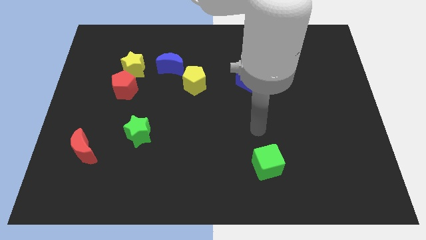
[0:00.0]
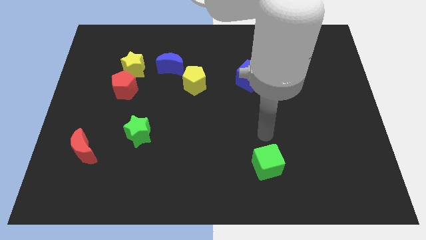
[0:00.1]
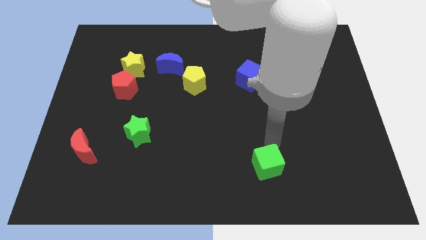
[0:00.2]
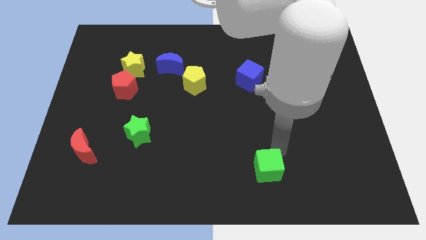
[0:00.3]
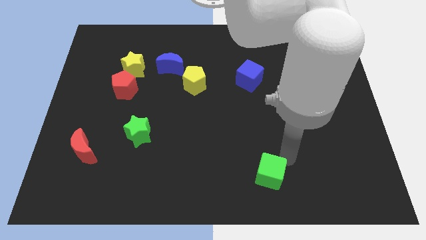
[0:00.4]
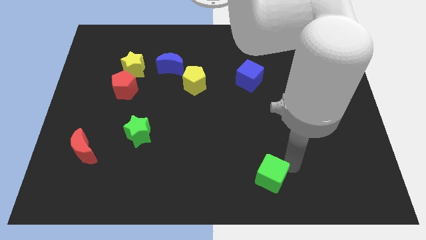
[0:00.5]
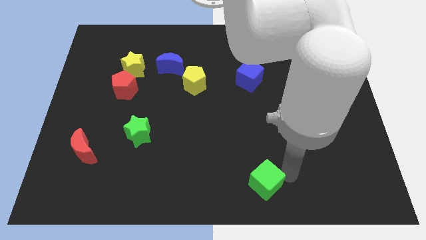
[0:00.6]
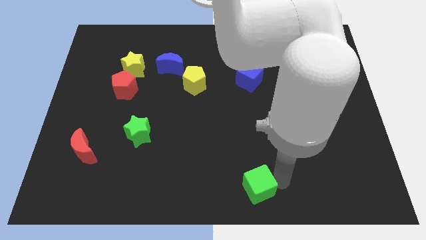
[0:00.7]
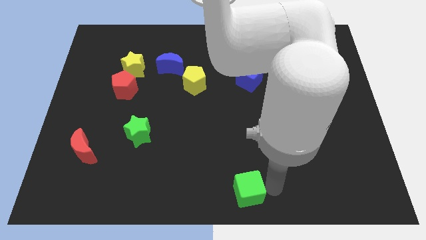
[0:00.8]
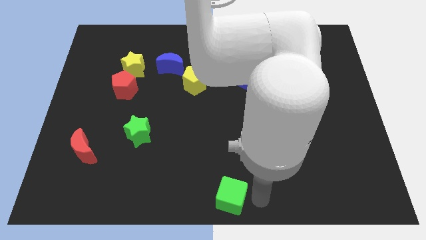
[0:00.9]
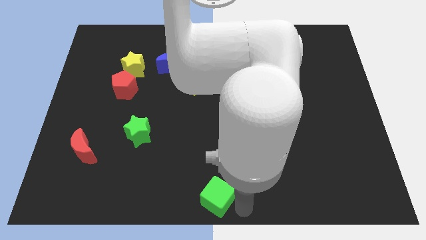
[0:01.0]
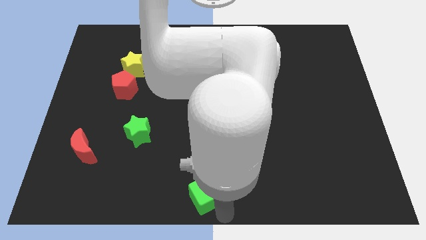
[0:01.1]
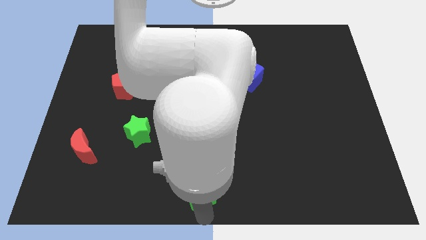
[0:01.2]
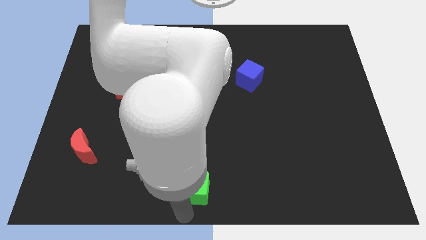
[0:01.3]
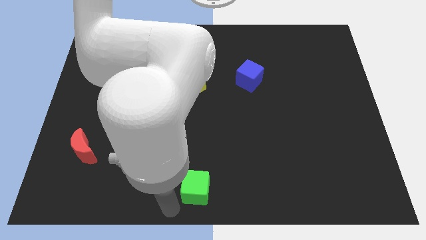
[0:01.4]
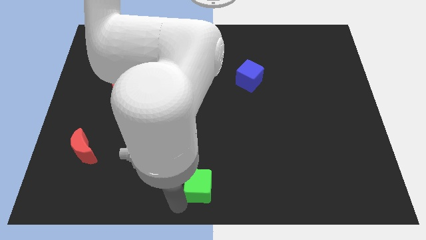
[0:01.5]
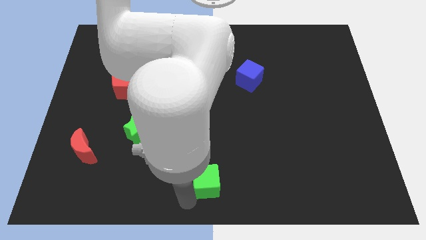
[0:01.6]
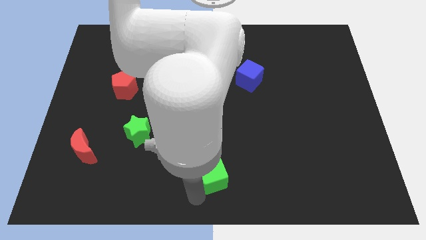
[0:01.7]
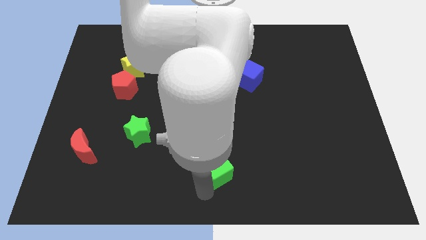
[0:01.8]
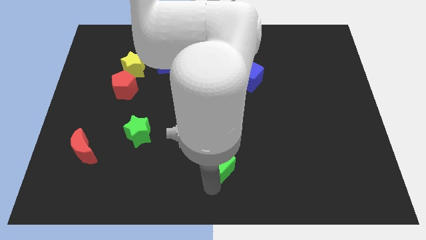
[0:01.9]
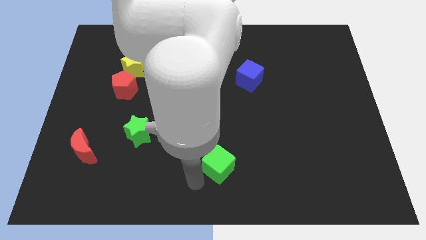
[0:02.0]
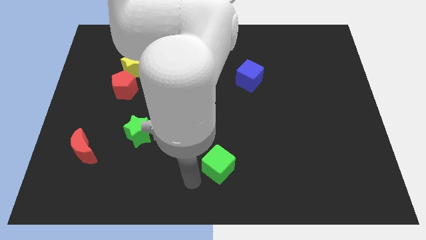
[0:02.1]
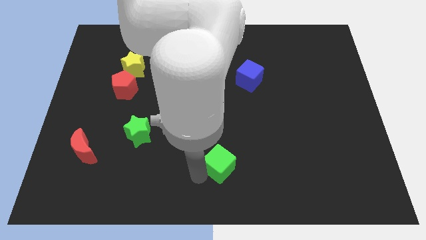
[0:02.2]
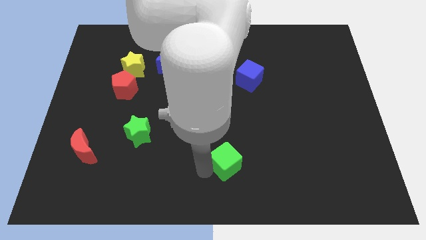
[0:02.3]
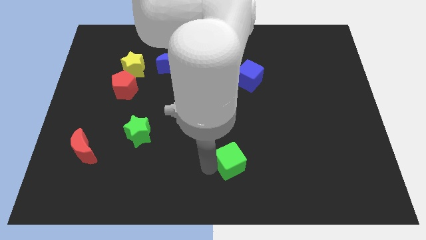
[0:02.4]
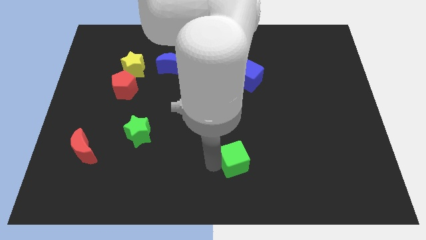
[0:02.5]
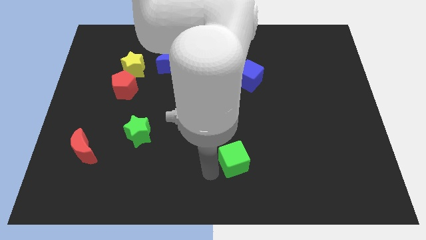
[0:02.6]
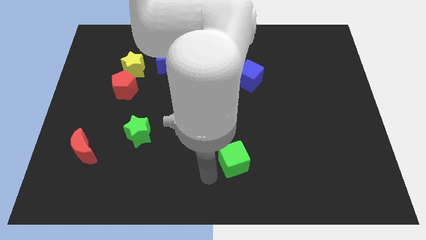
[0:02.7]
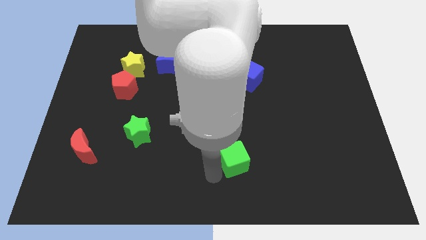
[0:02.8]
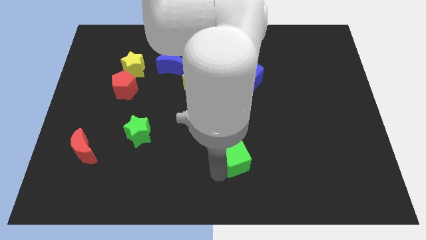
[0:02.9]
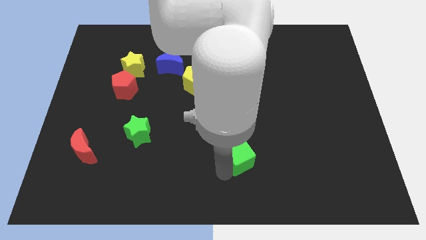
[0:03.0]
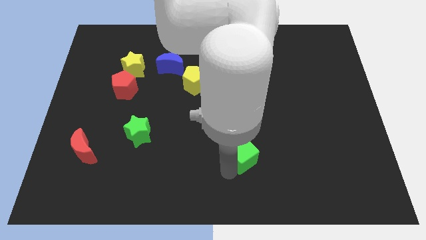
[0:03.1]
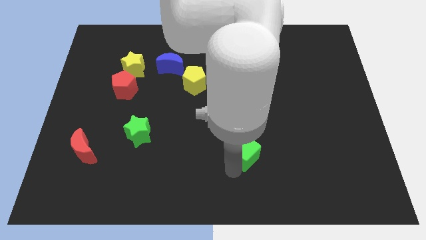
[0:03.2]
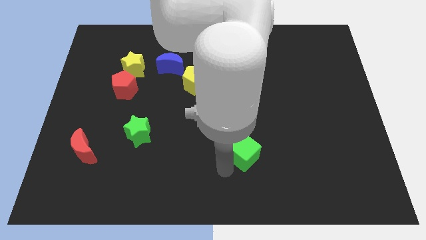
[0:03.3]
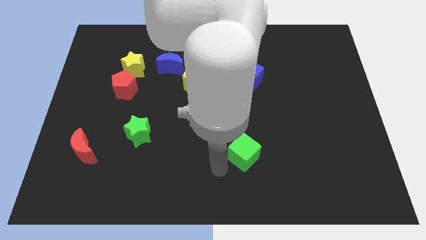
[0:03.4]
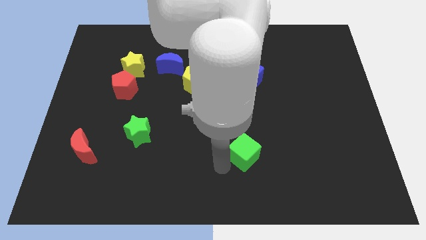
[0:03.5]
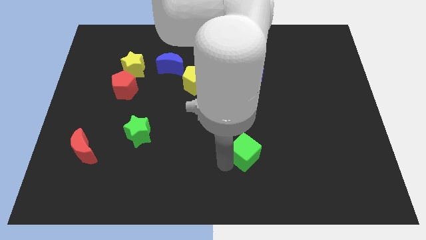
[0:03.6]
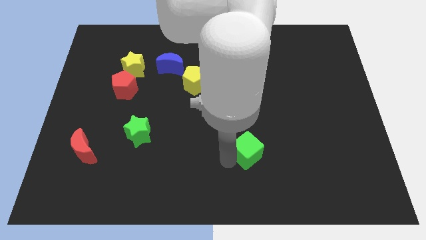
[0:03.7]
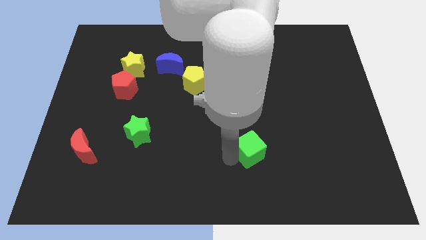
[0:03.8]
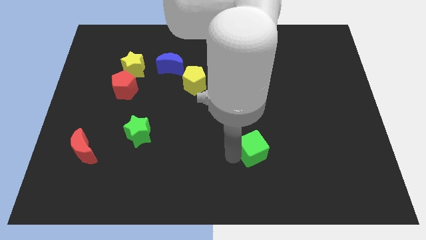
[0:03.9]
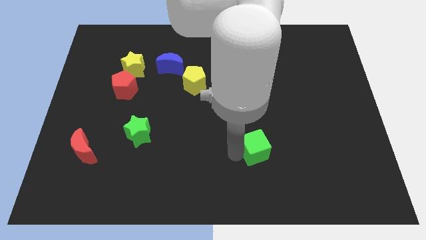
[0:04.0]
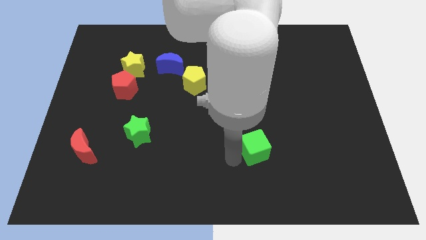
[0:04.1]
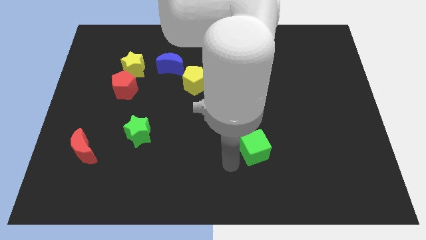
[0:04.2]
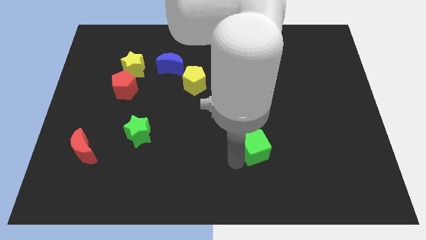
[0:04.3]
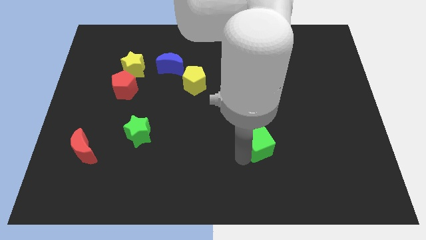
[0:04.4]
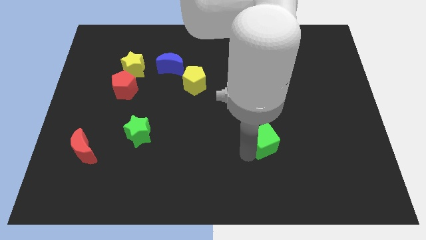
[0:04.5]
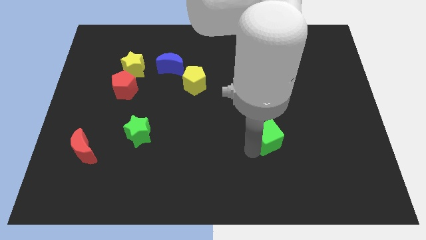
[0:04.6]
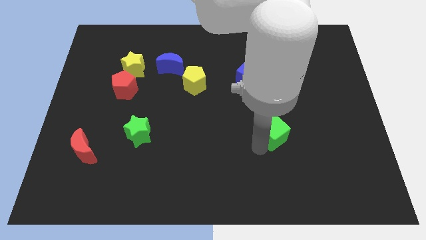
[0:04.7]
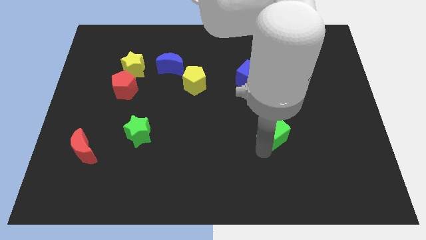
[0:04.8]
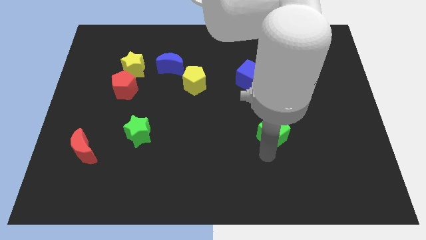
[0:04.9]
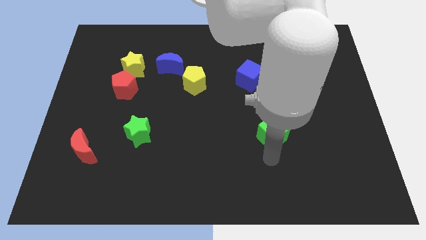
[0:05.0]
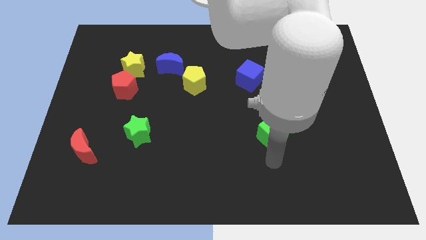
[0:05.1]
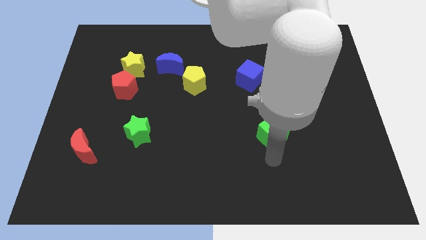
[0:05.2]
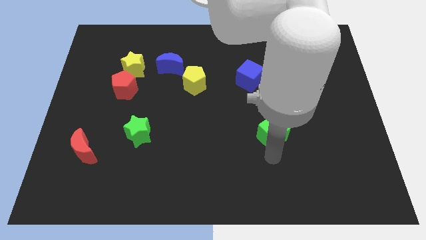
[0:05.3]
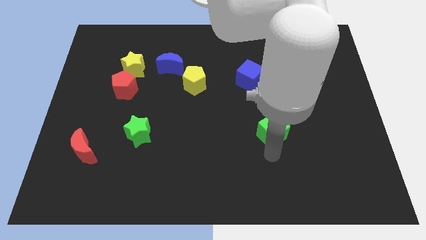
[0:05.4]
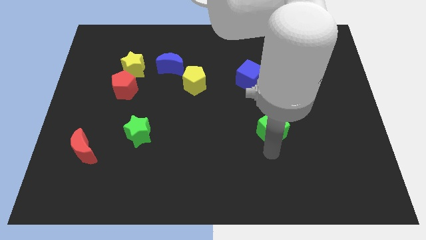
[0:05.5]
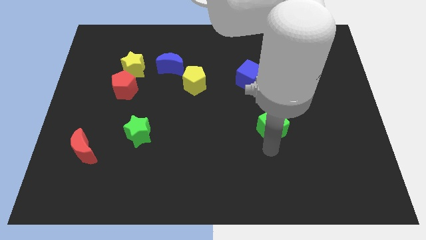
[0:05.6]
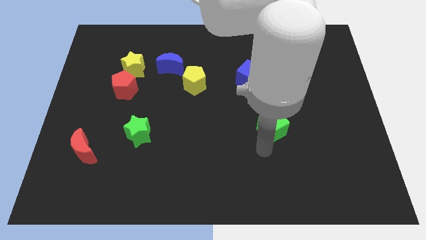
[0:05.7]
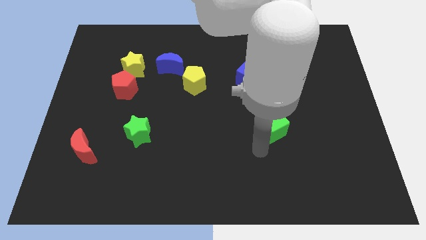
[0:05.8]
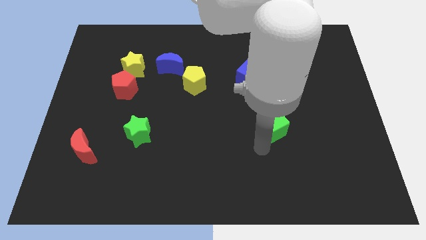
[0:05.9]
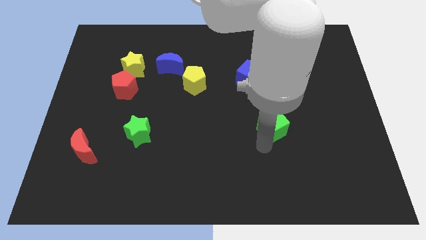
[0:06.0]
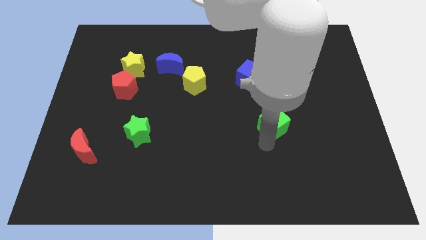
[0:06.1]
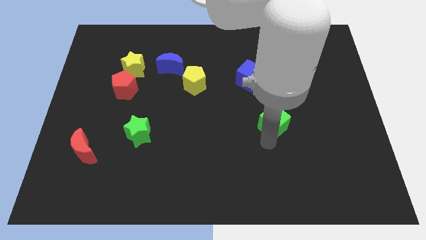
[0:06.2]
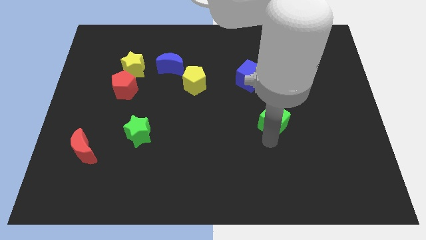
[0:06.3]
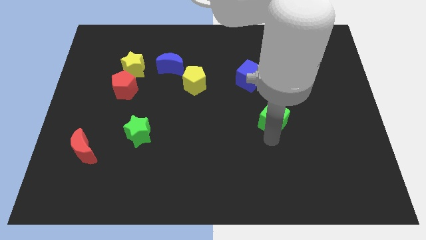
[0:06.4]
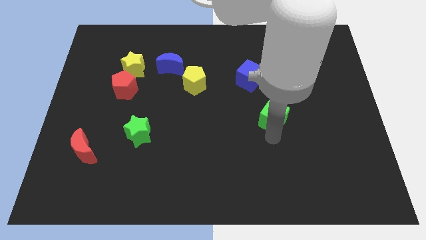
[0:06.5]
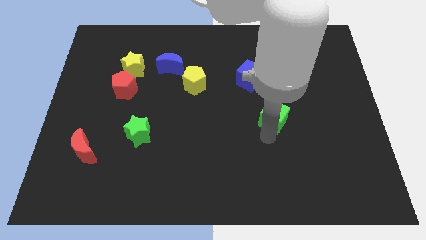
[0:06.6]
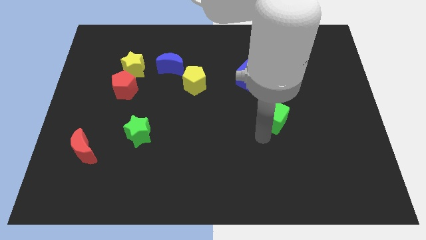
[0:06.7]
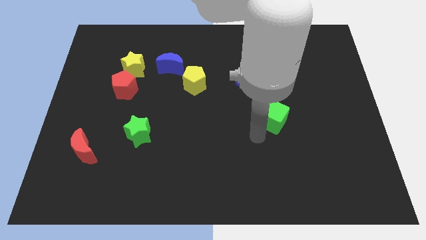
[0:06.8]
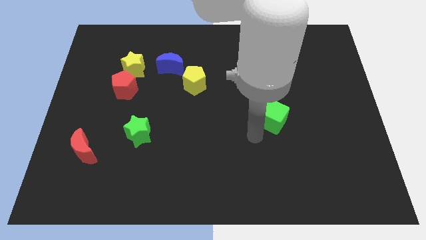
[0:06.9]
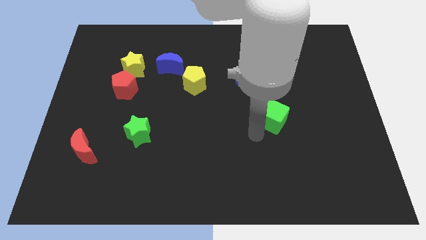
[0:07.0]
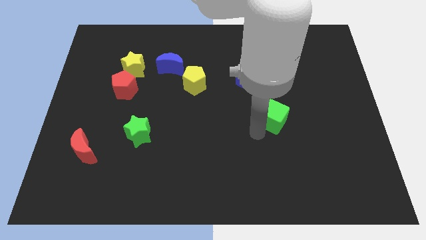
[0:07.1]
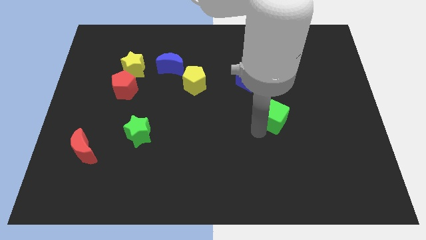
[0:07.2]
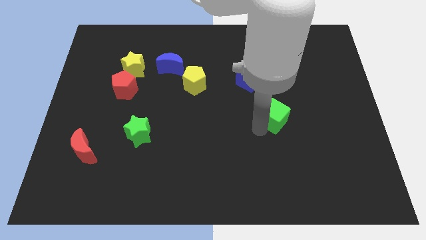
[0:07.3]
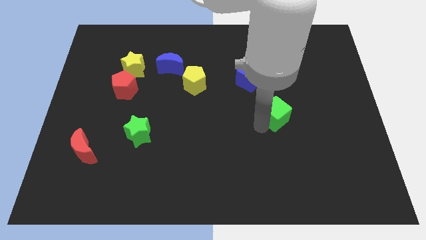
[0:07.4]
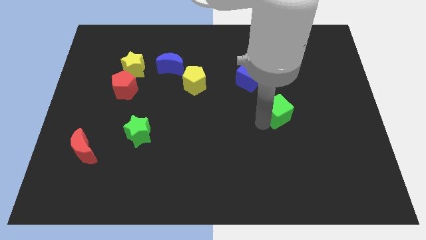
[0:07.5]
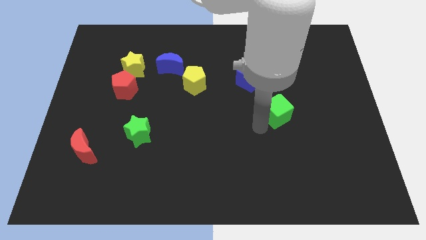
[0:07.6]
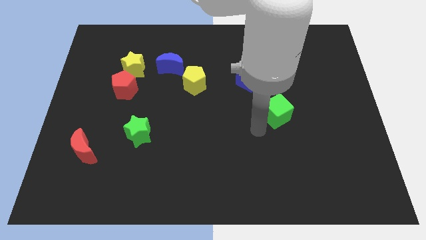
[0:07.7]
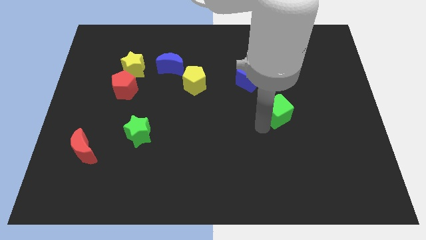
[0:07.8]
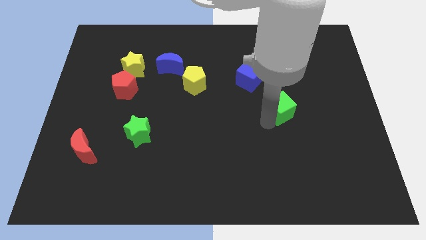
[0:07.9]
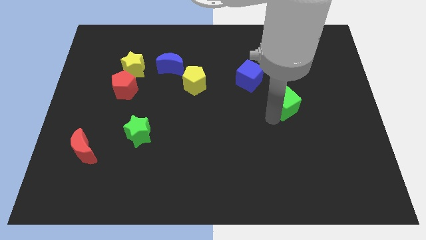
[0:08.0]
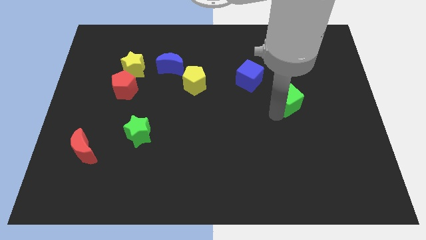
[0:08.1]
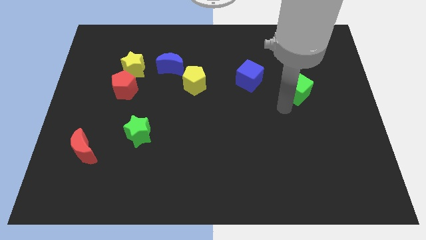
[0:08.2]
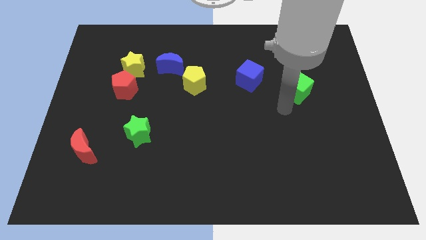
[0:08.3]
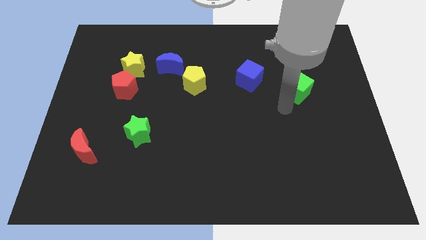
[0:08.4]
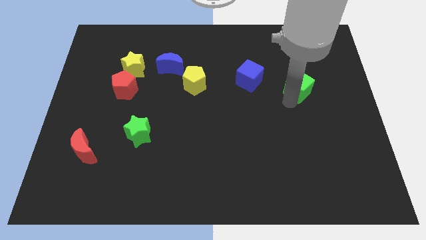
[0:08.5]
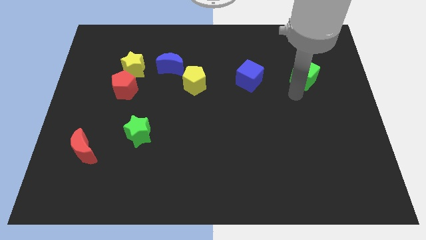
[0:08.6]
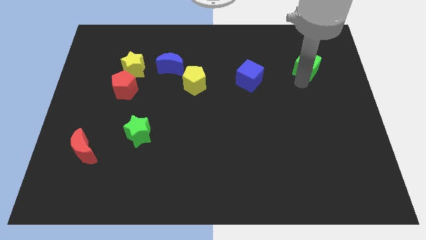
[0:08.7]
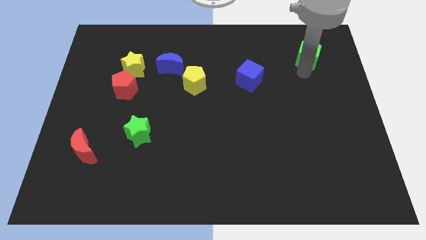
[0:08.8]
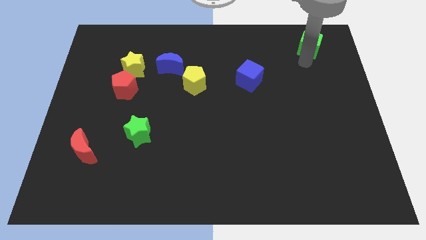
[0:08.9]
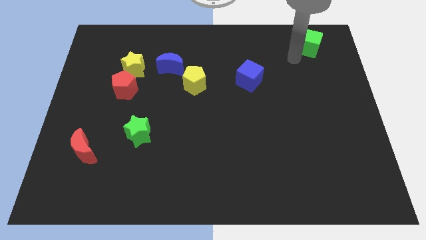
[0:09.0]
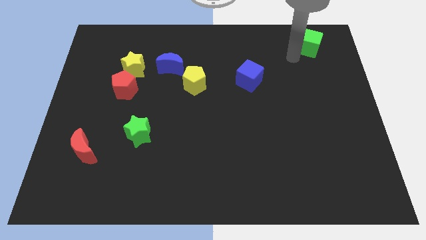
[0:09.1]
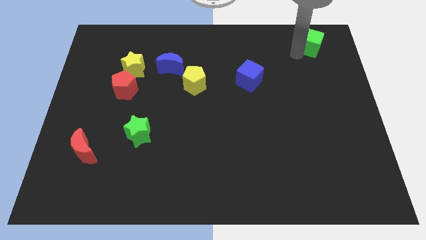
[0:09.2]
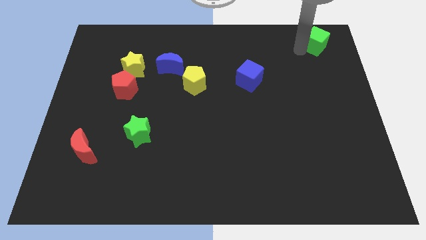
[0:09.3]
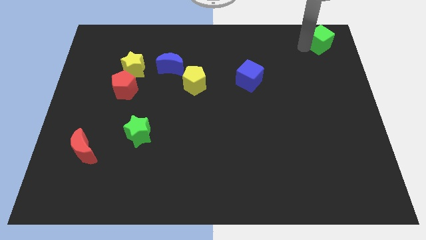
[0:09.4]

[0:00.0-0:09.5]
put the green cube to the top right of the board
